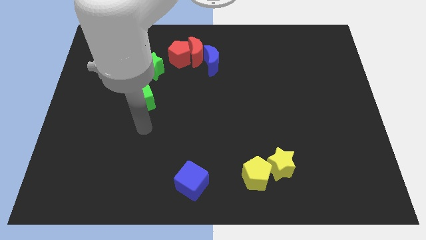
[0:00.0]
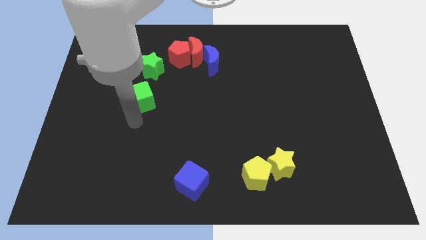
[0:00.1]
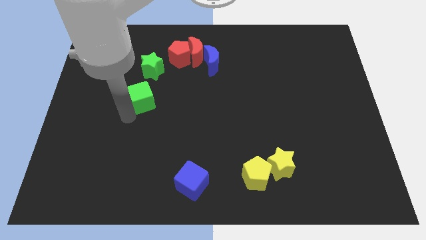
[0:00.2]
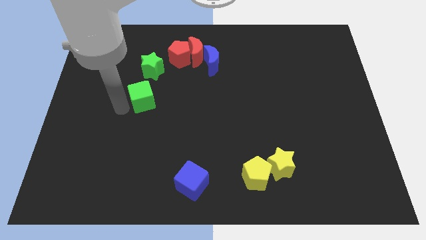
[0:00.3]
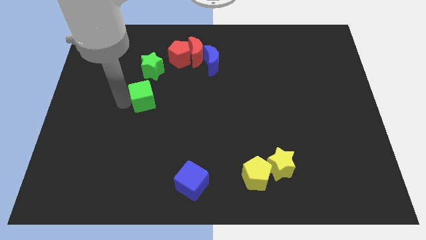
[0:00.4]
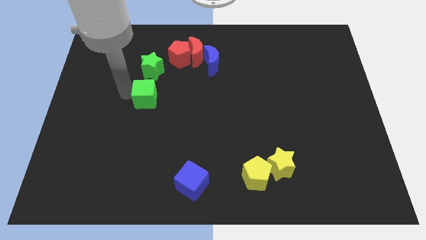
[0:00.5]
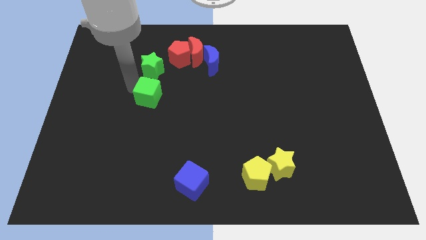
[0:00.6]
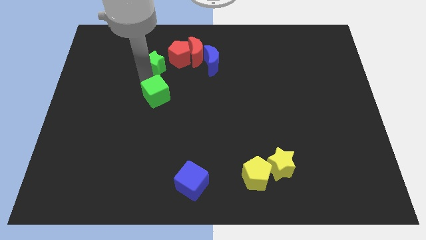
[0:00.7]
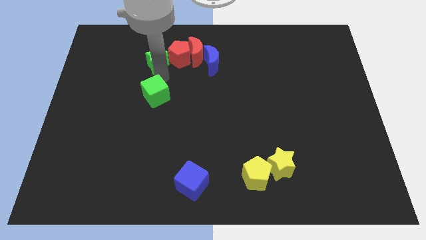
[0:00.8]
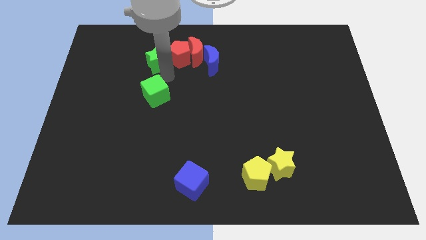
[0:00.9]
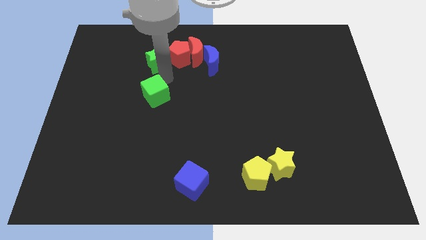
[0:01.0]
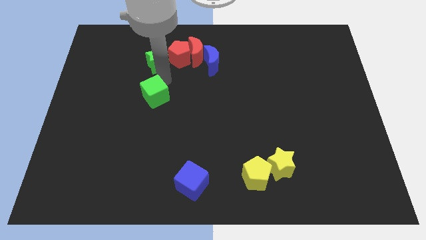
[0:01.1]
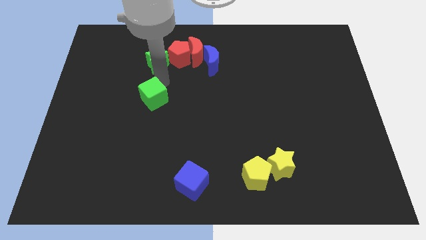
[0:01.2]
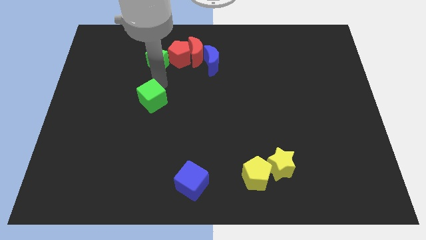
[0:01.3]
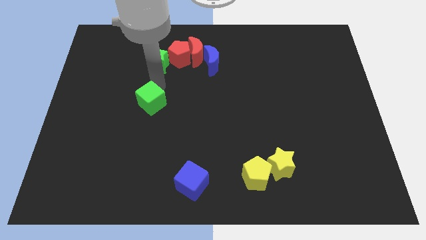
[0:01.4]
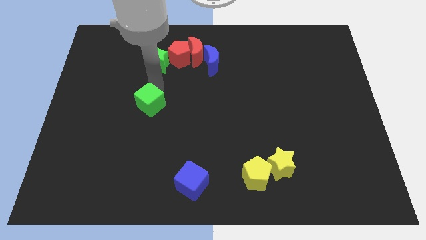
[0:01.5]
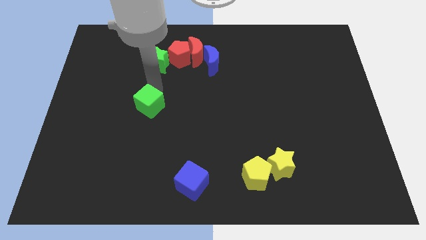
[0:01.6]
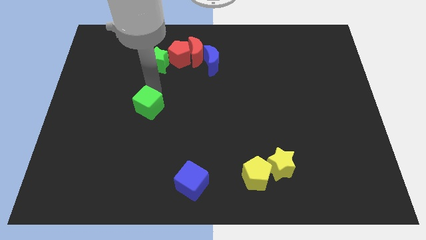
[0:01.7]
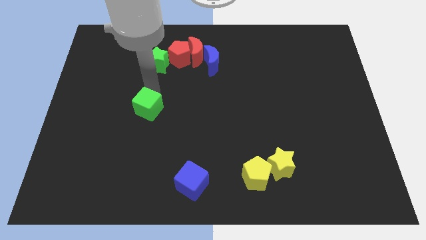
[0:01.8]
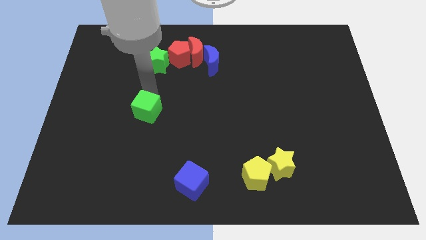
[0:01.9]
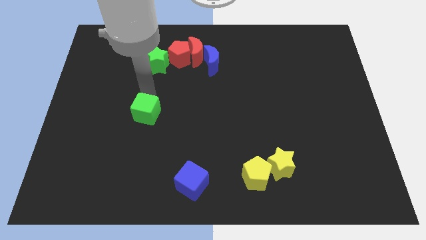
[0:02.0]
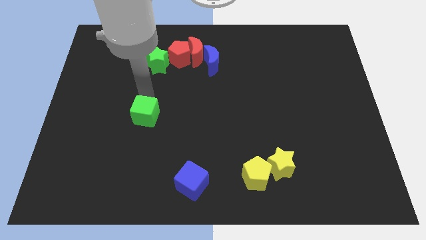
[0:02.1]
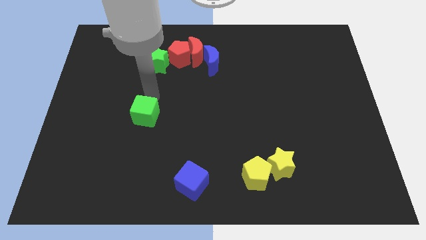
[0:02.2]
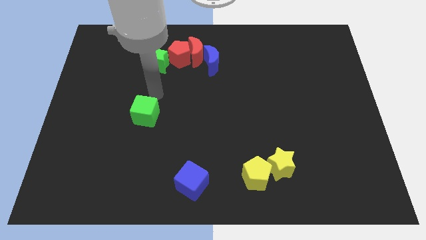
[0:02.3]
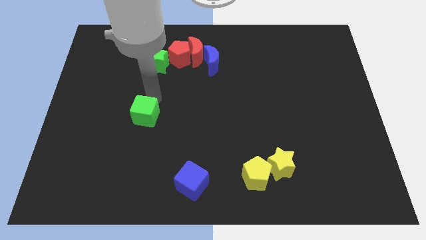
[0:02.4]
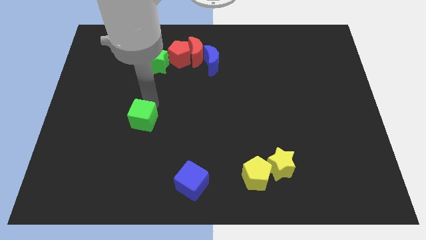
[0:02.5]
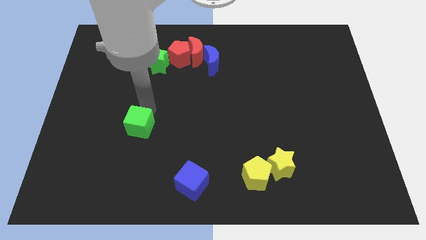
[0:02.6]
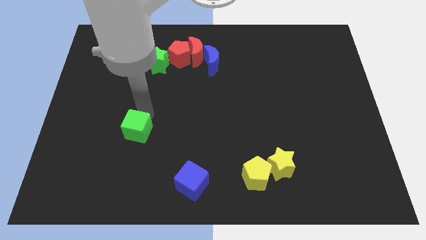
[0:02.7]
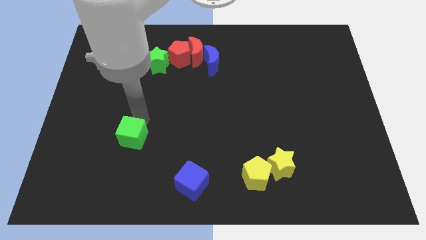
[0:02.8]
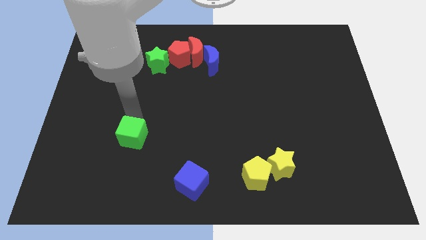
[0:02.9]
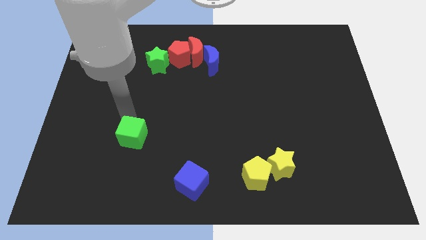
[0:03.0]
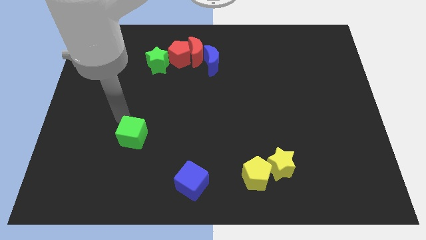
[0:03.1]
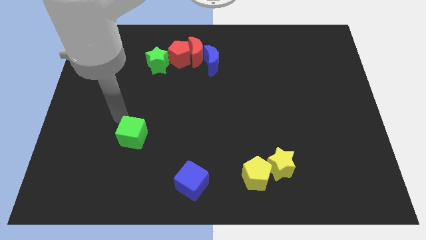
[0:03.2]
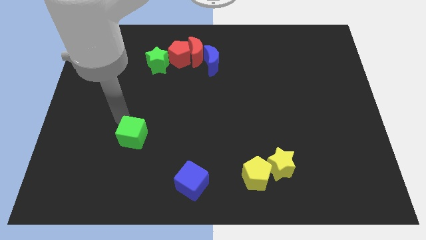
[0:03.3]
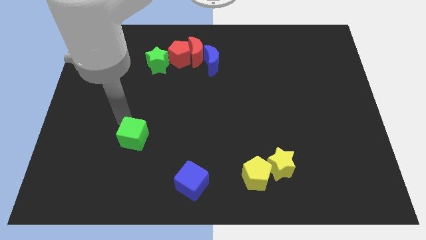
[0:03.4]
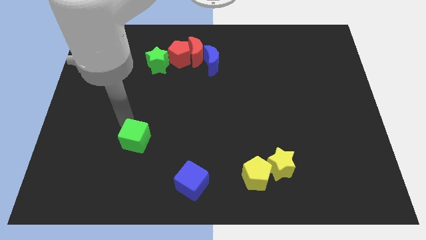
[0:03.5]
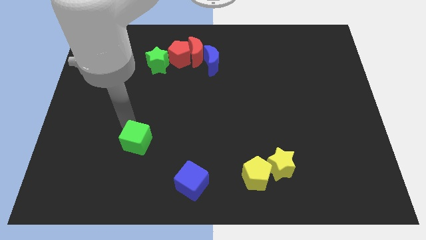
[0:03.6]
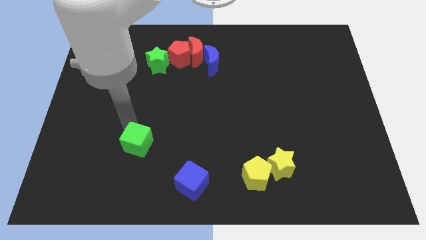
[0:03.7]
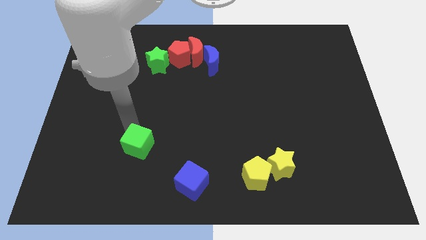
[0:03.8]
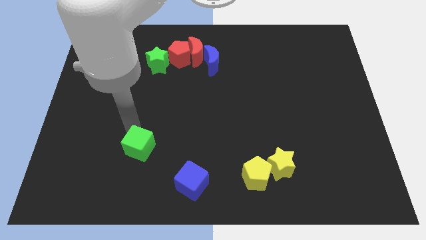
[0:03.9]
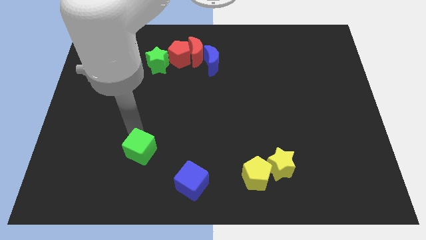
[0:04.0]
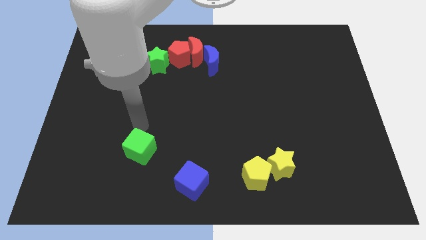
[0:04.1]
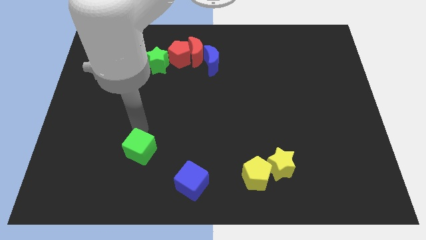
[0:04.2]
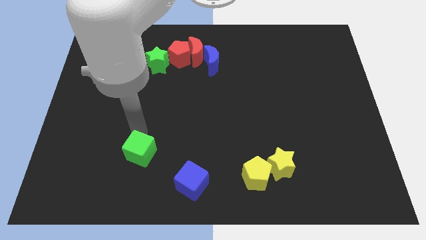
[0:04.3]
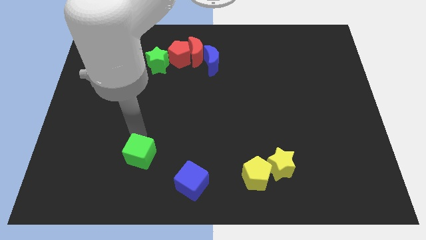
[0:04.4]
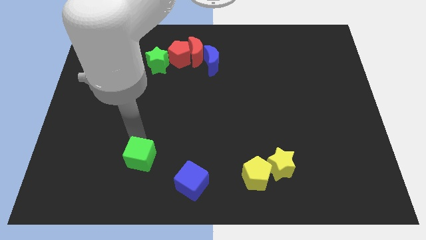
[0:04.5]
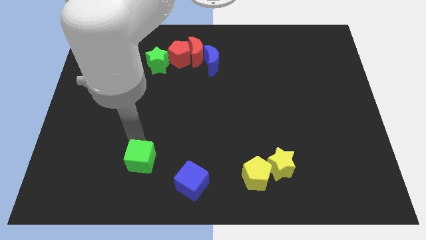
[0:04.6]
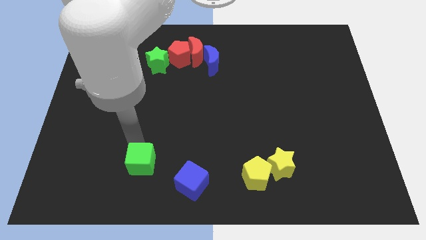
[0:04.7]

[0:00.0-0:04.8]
put the green cube left of the blue cube

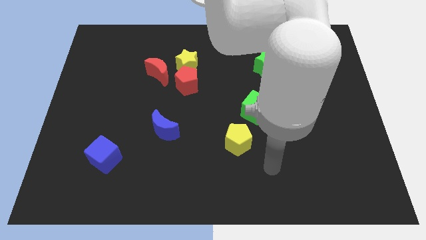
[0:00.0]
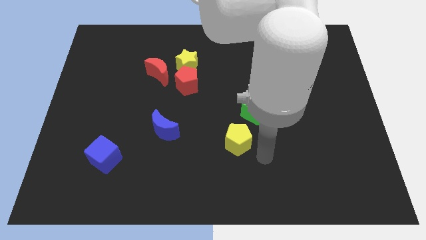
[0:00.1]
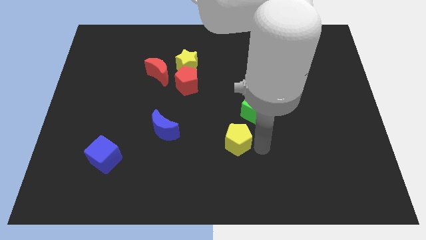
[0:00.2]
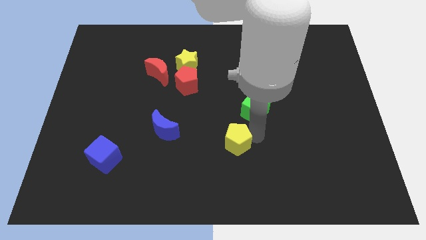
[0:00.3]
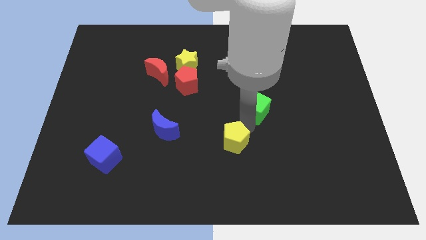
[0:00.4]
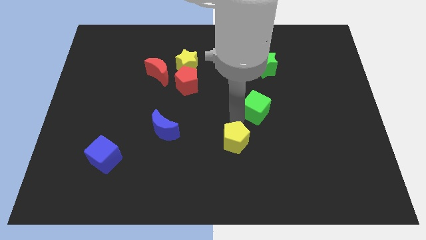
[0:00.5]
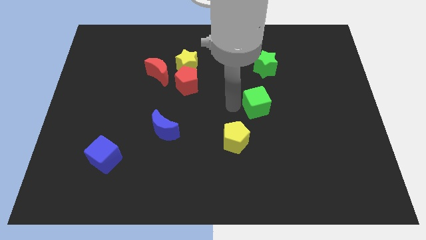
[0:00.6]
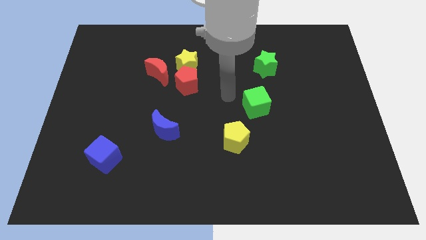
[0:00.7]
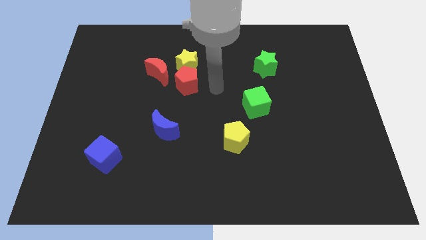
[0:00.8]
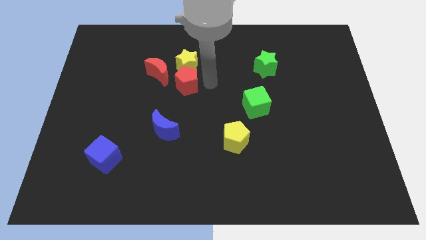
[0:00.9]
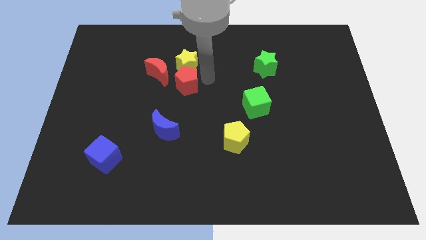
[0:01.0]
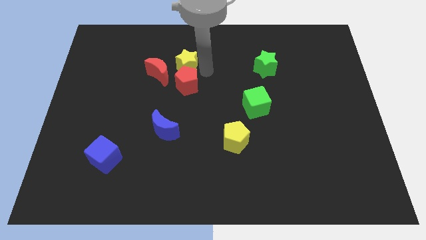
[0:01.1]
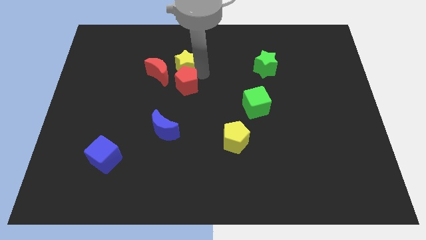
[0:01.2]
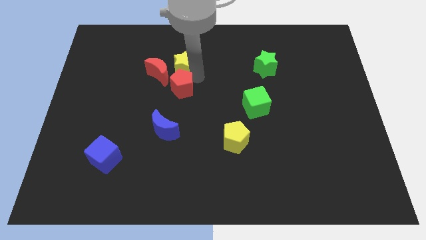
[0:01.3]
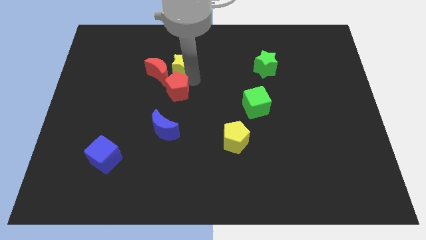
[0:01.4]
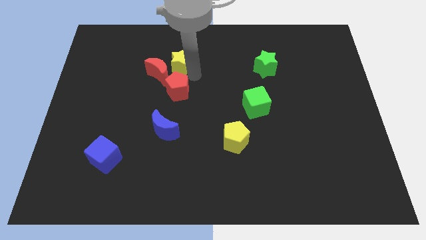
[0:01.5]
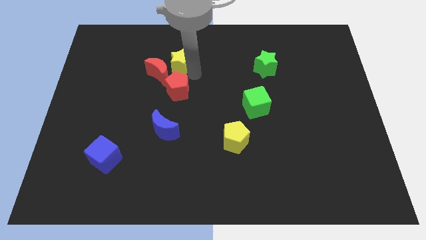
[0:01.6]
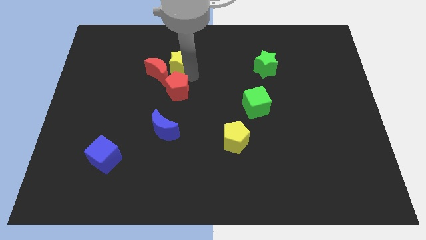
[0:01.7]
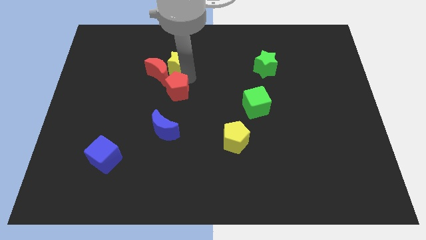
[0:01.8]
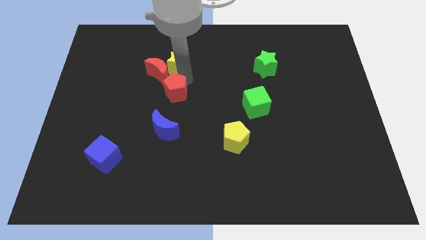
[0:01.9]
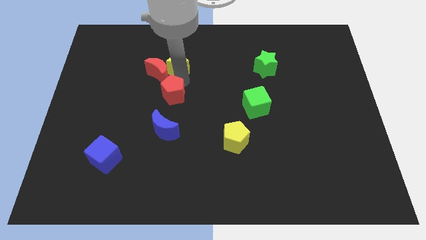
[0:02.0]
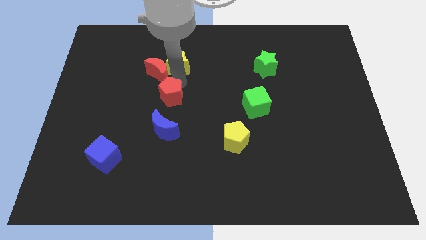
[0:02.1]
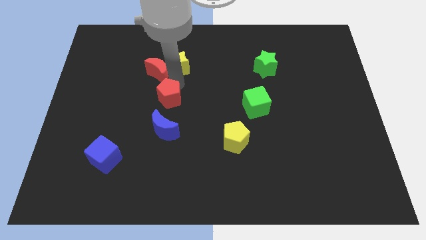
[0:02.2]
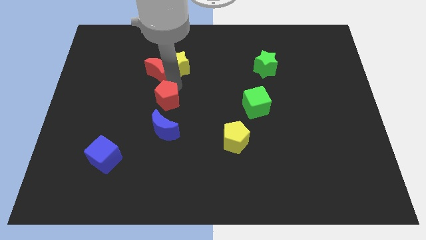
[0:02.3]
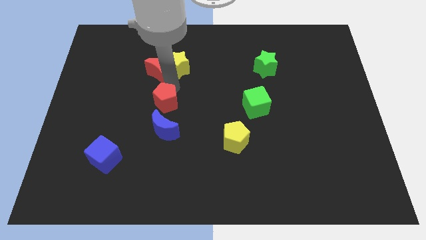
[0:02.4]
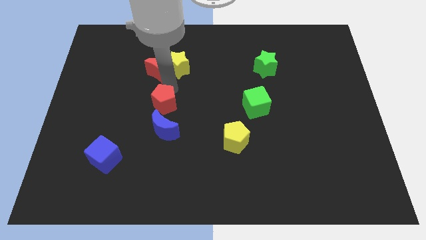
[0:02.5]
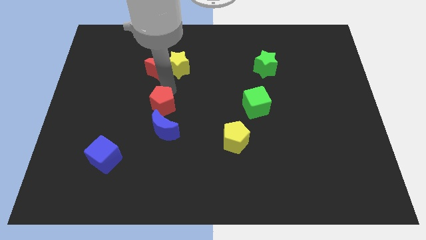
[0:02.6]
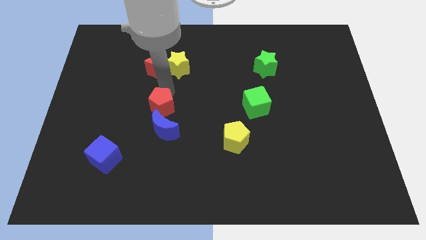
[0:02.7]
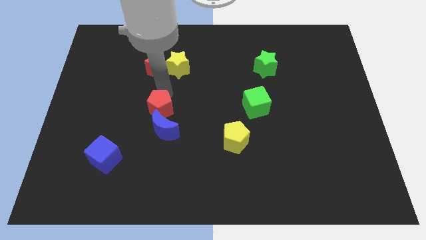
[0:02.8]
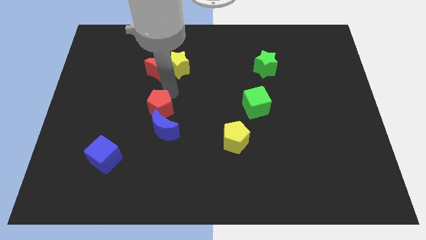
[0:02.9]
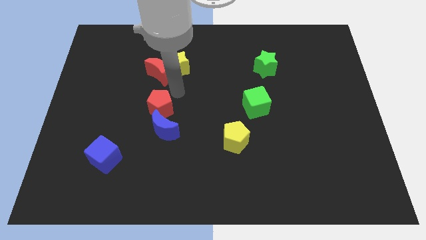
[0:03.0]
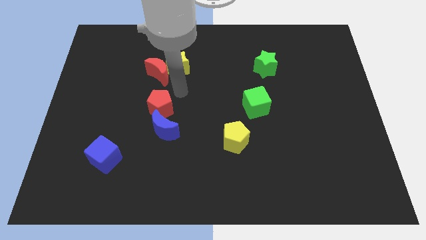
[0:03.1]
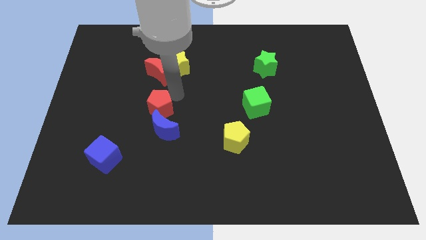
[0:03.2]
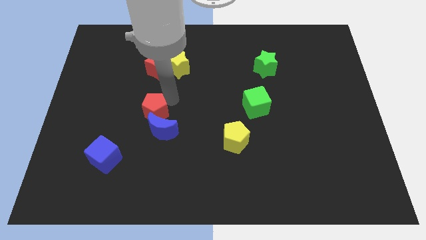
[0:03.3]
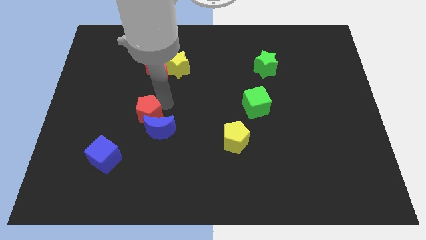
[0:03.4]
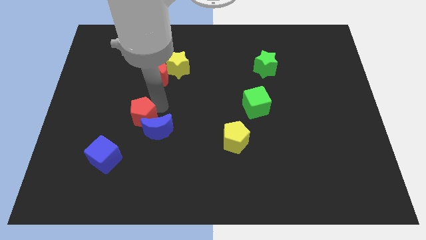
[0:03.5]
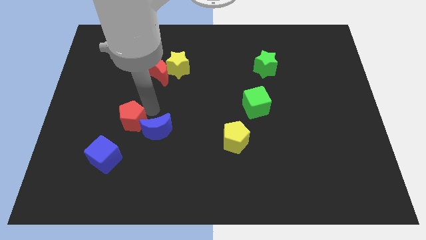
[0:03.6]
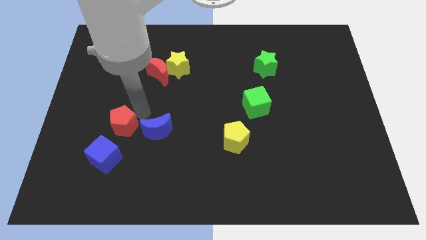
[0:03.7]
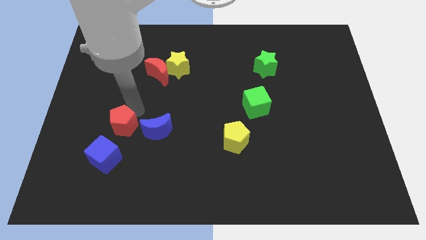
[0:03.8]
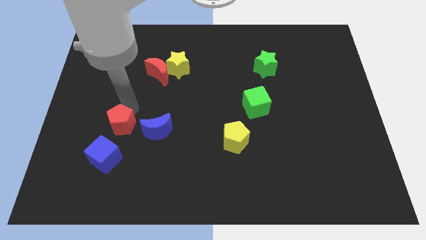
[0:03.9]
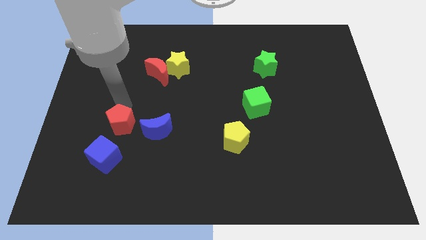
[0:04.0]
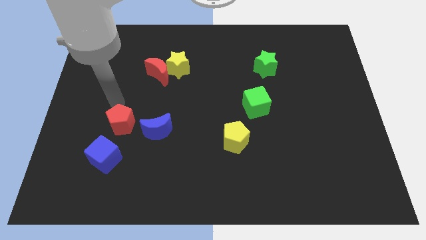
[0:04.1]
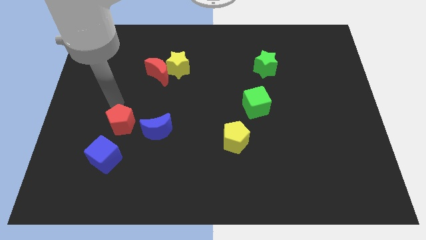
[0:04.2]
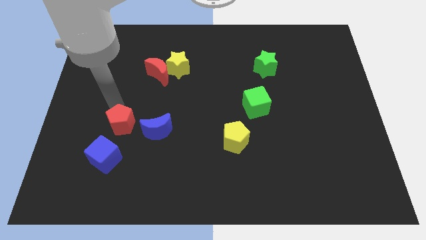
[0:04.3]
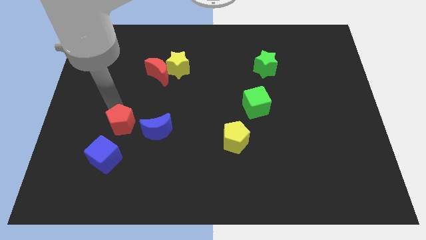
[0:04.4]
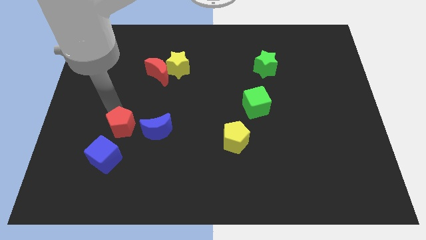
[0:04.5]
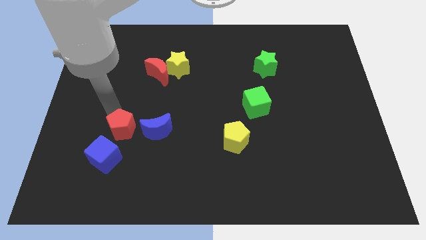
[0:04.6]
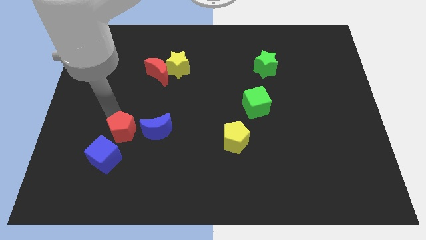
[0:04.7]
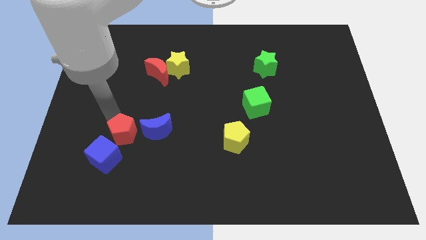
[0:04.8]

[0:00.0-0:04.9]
put the red pentagon diagonally down and to the left of the blue moon
